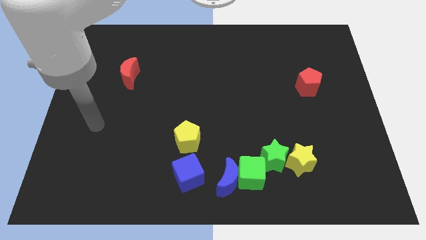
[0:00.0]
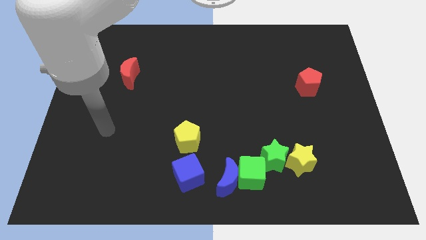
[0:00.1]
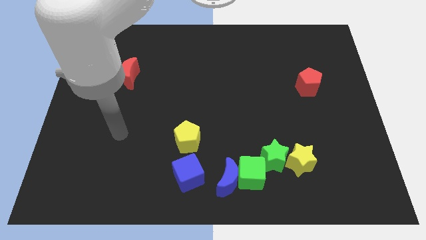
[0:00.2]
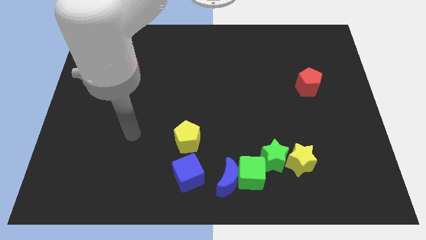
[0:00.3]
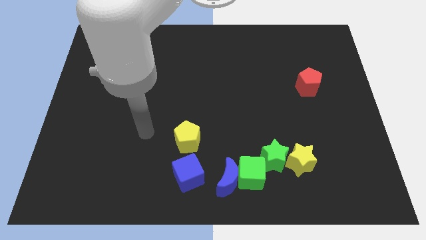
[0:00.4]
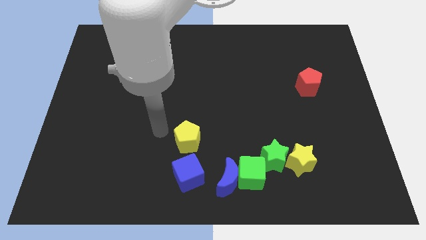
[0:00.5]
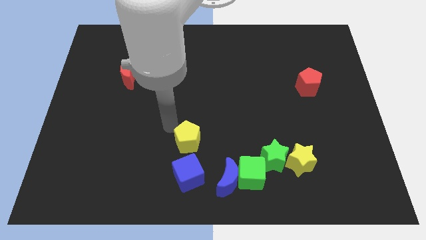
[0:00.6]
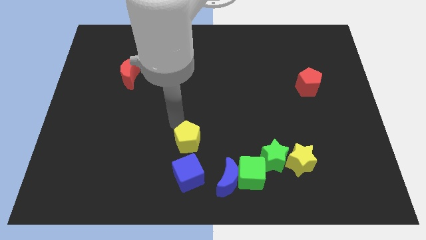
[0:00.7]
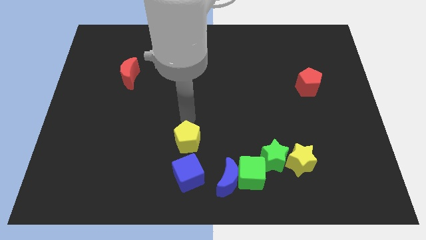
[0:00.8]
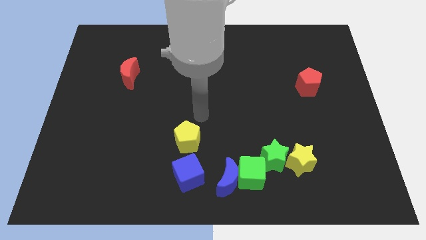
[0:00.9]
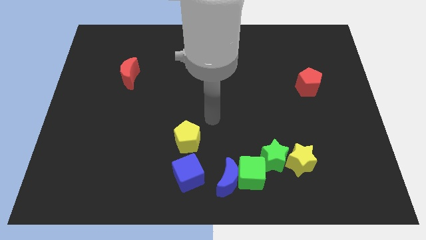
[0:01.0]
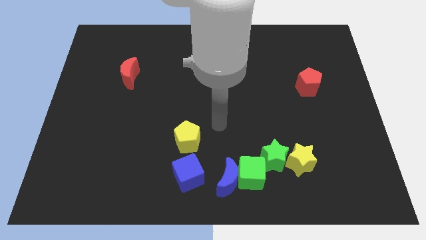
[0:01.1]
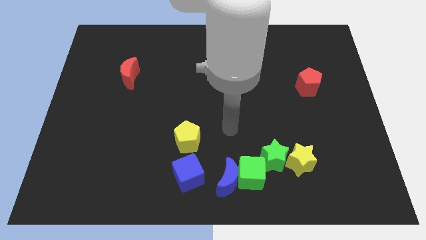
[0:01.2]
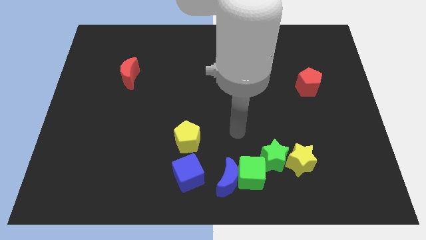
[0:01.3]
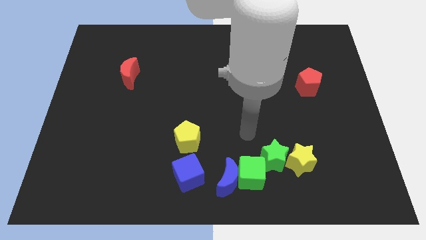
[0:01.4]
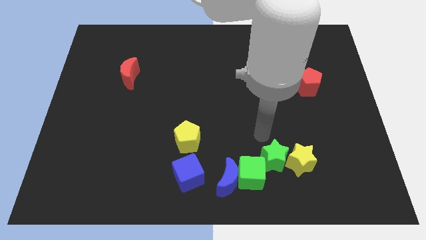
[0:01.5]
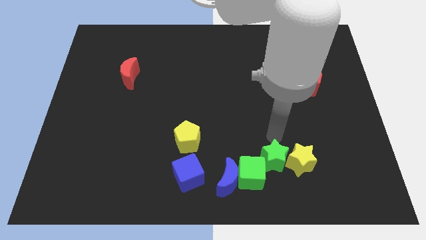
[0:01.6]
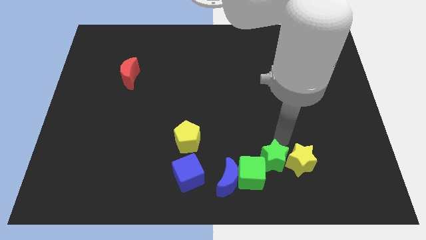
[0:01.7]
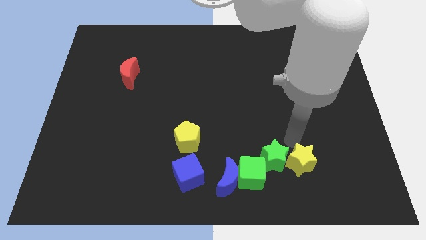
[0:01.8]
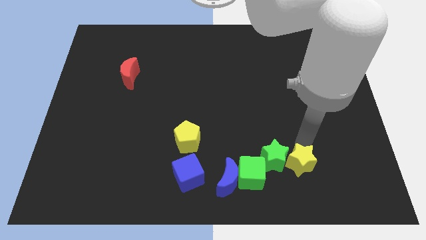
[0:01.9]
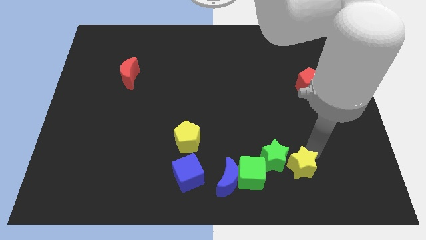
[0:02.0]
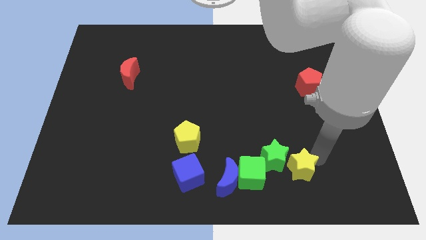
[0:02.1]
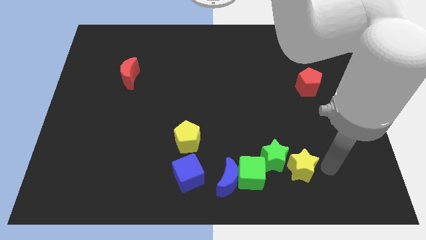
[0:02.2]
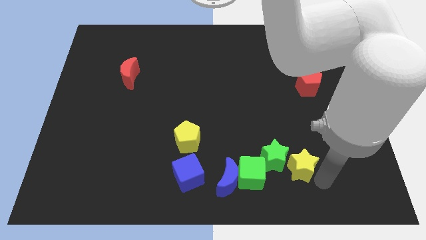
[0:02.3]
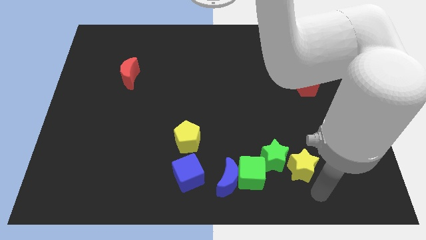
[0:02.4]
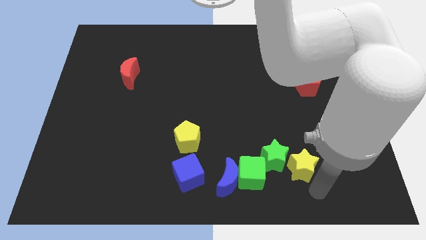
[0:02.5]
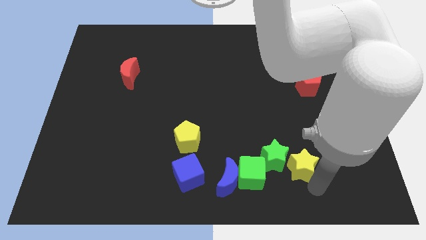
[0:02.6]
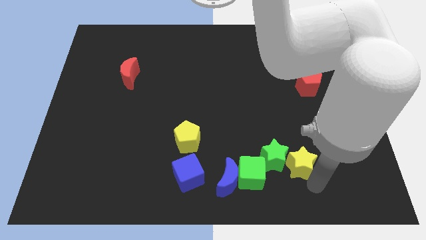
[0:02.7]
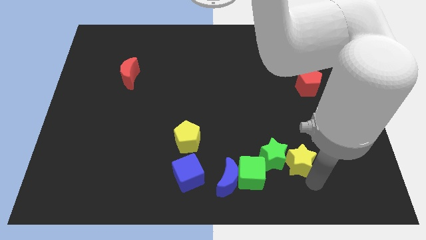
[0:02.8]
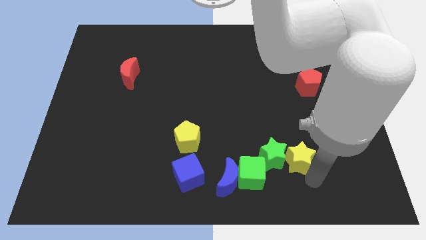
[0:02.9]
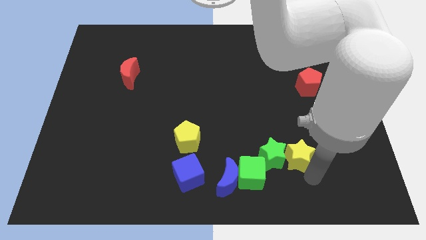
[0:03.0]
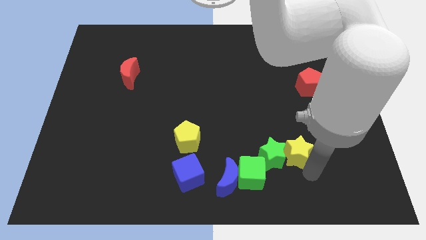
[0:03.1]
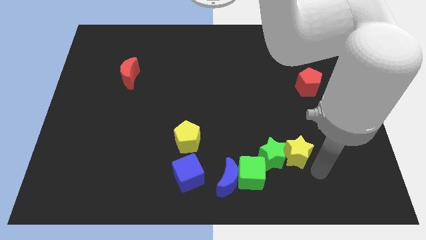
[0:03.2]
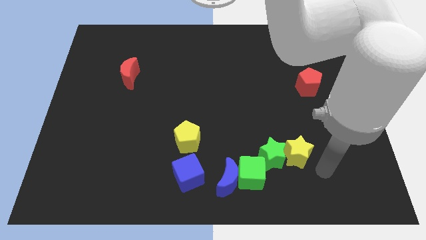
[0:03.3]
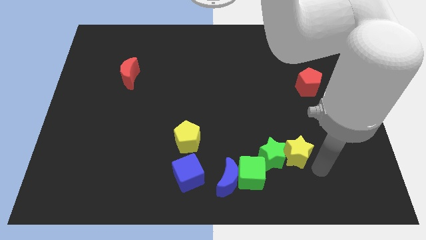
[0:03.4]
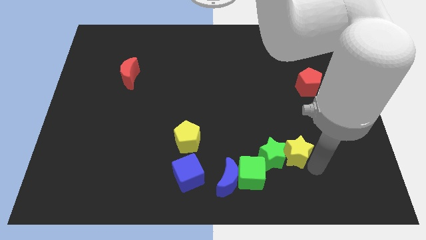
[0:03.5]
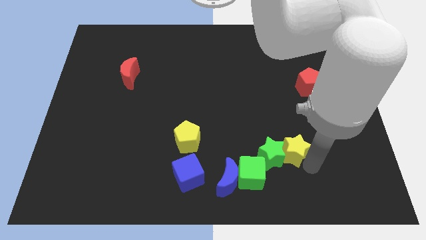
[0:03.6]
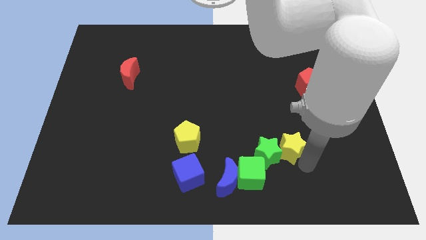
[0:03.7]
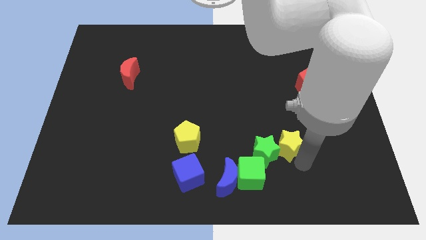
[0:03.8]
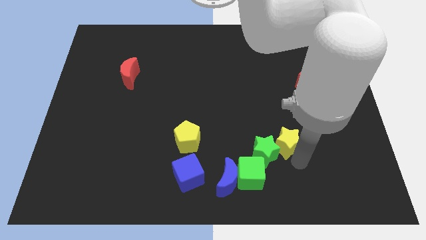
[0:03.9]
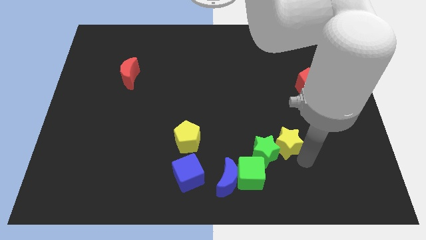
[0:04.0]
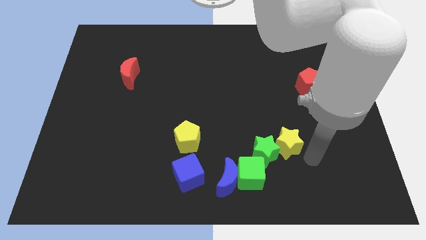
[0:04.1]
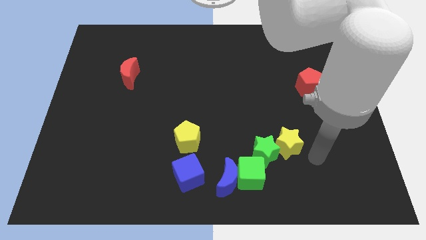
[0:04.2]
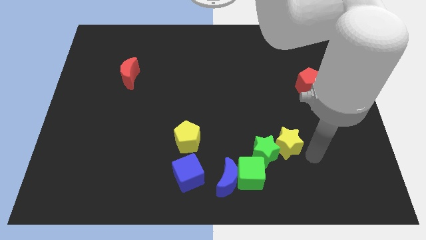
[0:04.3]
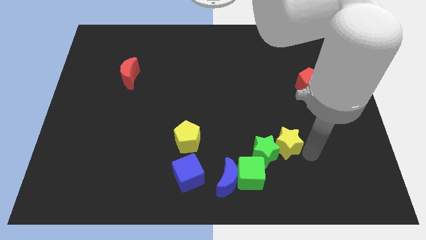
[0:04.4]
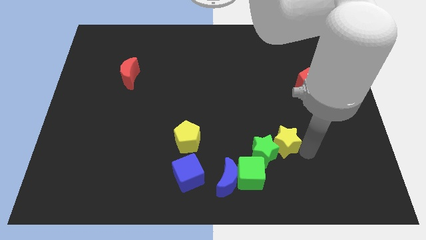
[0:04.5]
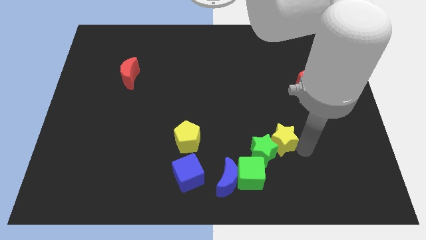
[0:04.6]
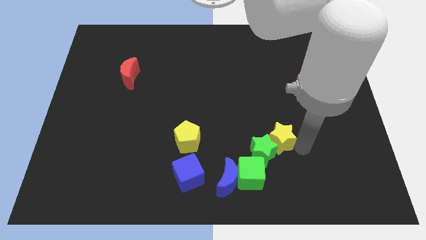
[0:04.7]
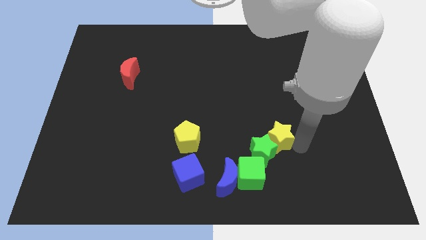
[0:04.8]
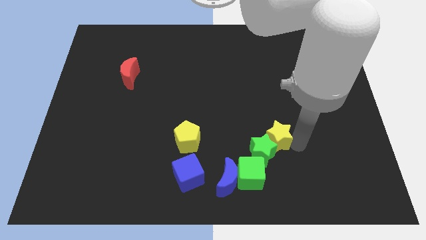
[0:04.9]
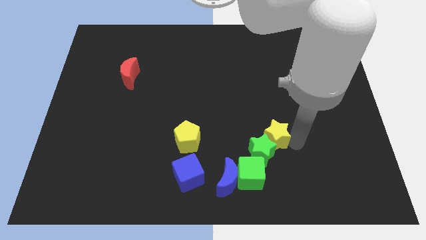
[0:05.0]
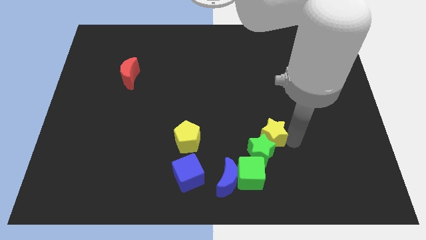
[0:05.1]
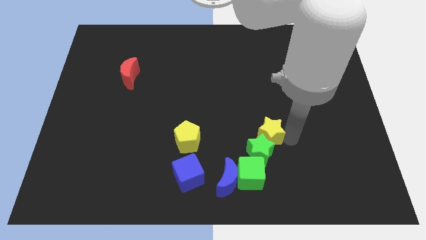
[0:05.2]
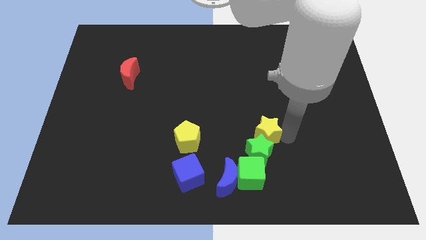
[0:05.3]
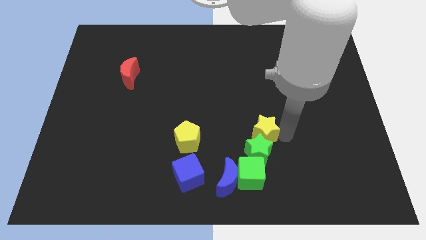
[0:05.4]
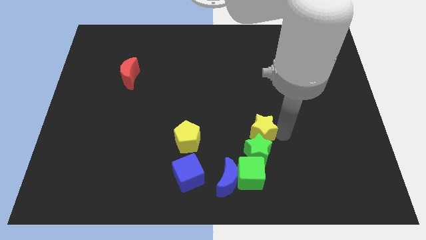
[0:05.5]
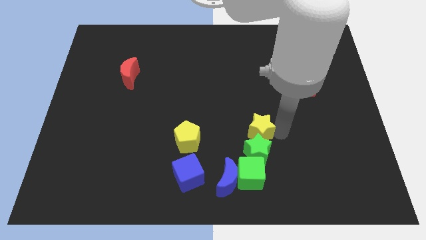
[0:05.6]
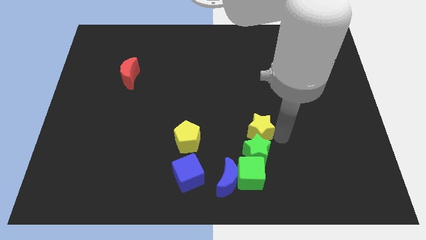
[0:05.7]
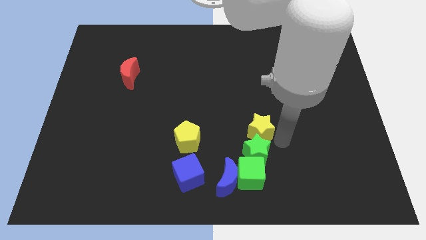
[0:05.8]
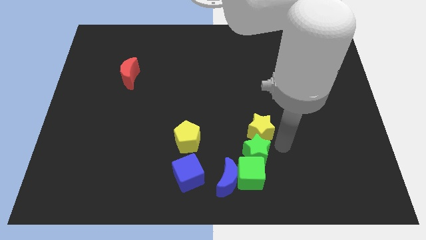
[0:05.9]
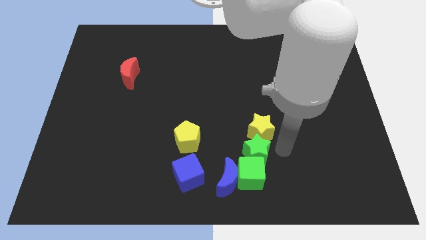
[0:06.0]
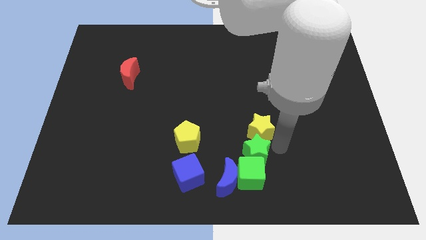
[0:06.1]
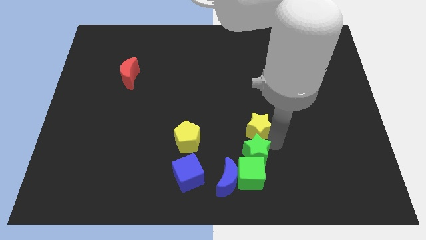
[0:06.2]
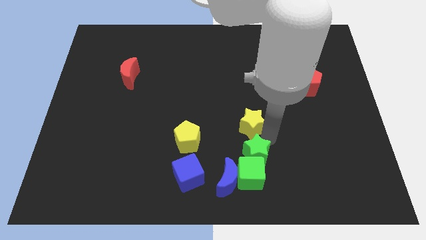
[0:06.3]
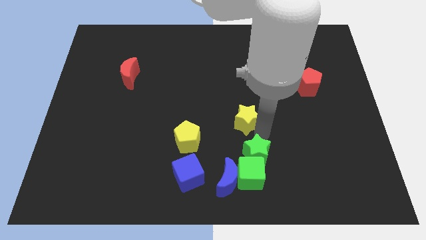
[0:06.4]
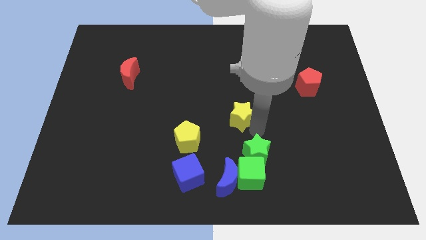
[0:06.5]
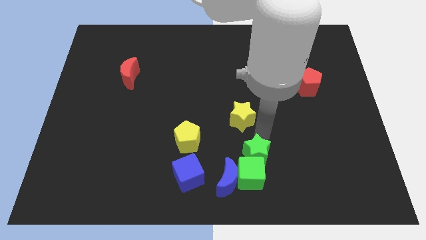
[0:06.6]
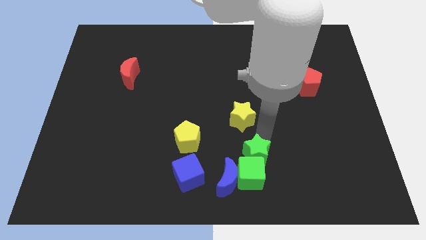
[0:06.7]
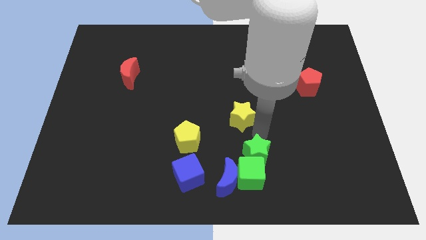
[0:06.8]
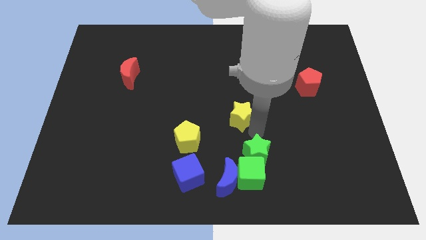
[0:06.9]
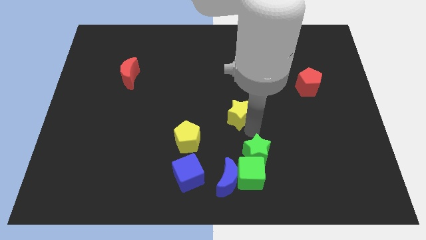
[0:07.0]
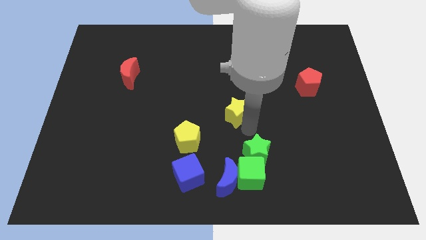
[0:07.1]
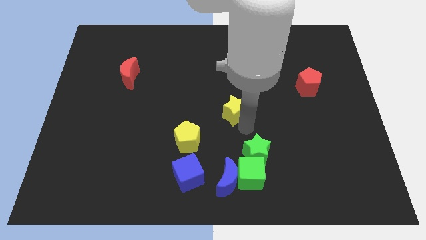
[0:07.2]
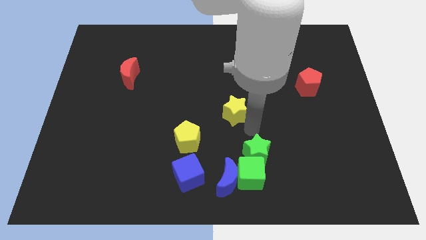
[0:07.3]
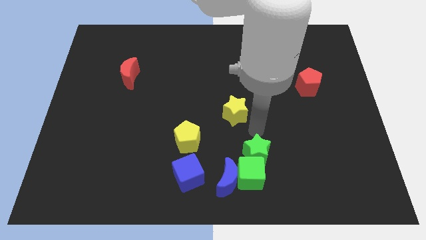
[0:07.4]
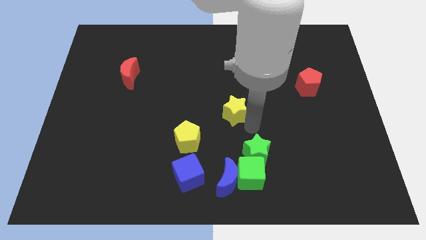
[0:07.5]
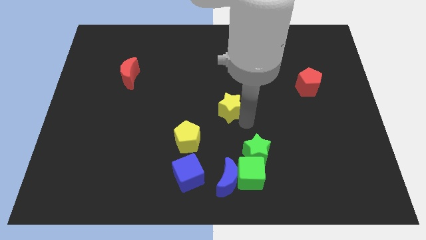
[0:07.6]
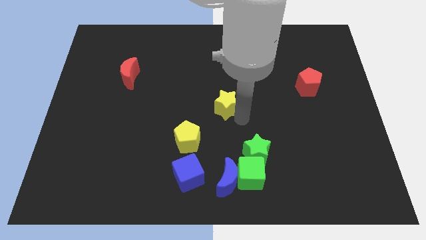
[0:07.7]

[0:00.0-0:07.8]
move the yellow star up and to the left

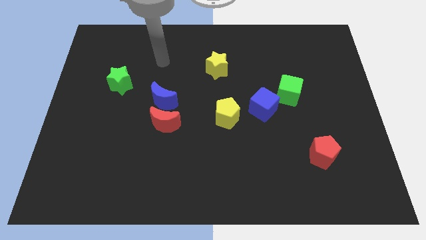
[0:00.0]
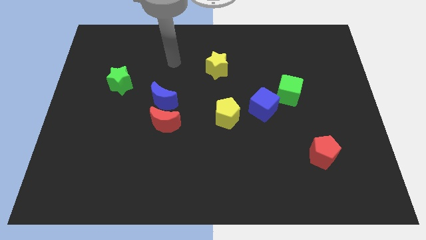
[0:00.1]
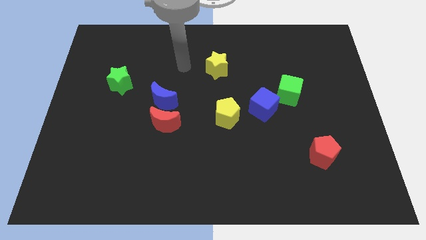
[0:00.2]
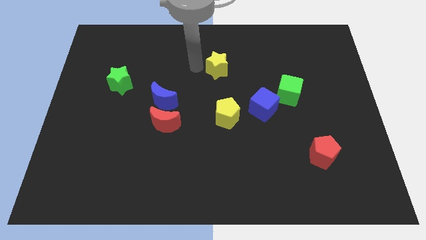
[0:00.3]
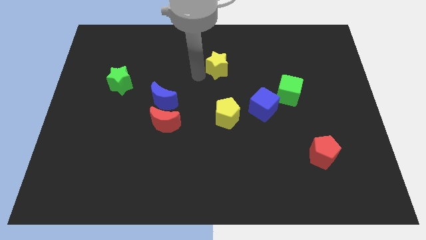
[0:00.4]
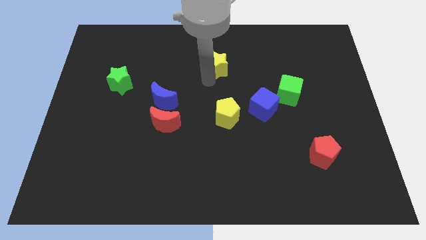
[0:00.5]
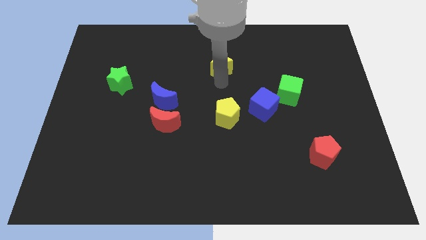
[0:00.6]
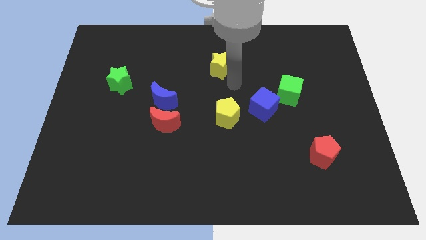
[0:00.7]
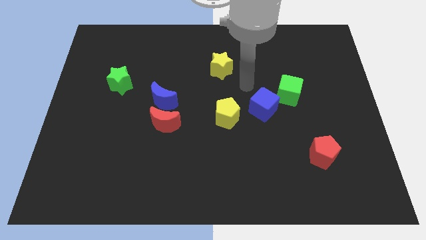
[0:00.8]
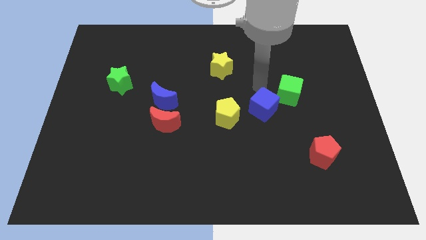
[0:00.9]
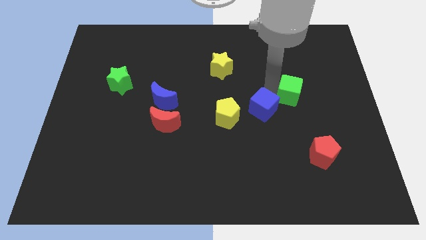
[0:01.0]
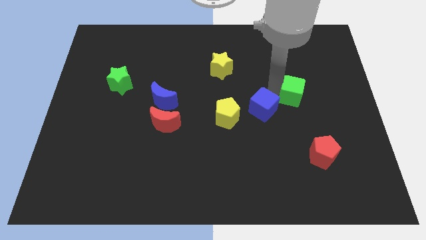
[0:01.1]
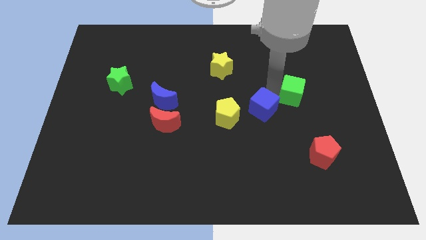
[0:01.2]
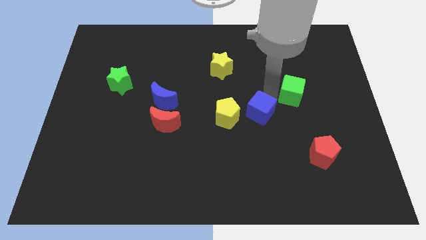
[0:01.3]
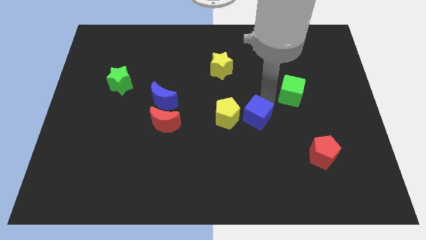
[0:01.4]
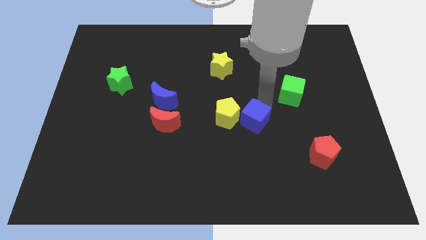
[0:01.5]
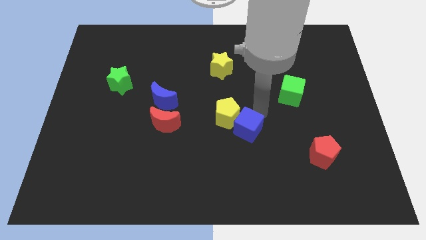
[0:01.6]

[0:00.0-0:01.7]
slide the blue cube down and then to the left slightly
